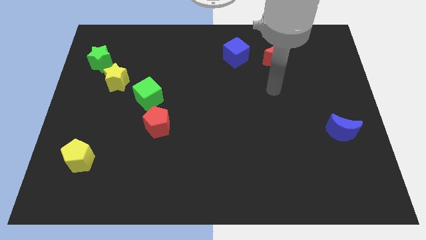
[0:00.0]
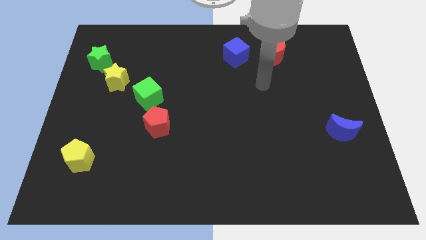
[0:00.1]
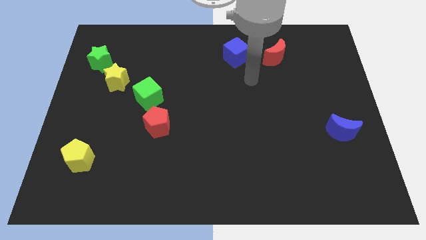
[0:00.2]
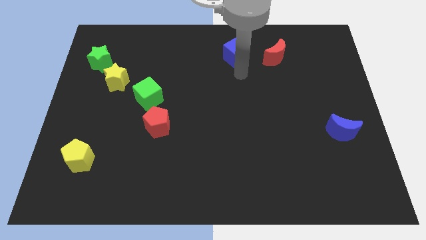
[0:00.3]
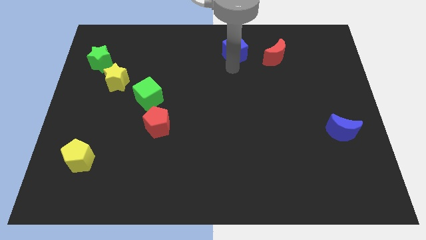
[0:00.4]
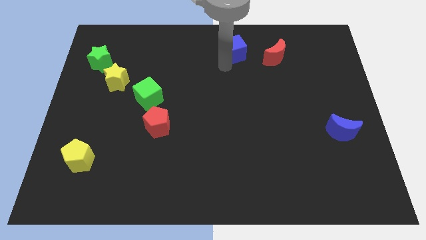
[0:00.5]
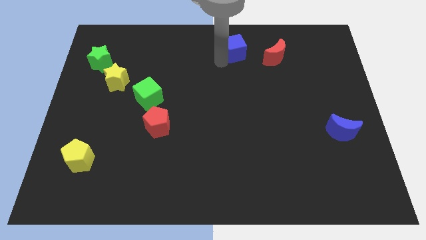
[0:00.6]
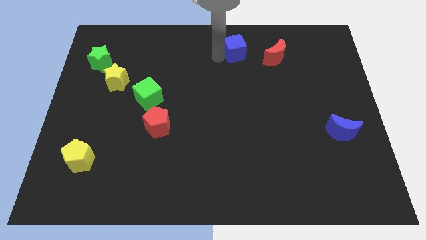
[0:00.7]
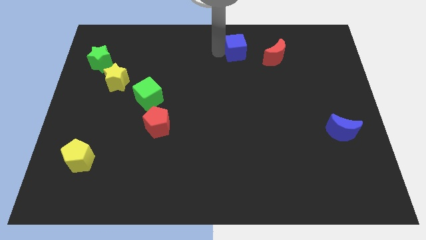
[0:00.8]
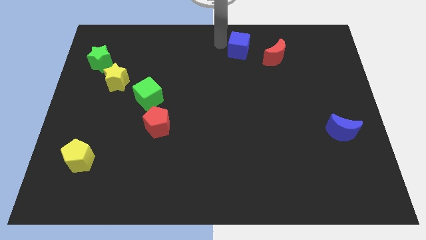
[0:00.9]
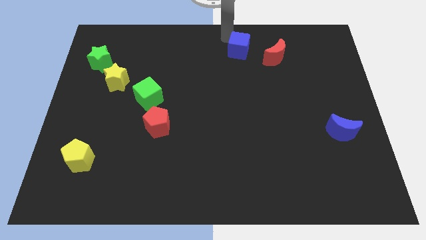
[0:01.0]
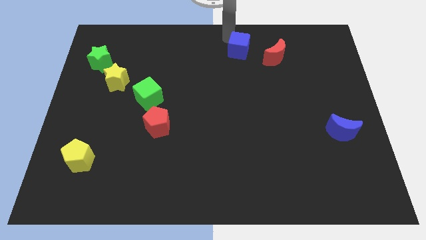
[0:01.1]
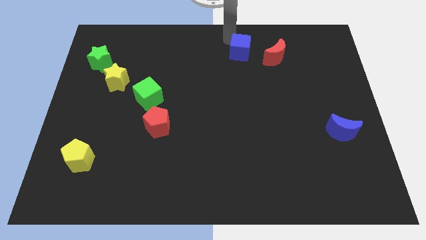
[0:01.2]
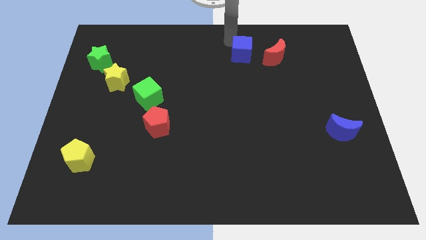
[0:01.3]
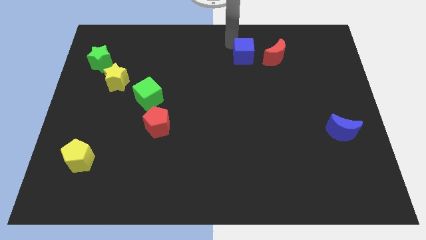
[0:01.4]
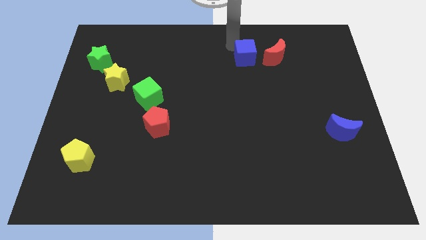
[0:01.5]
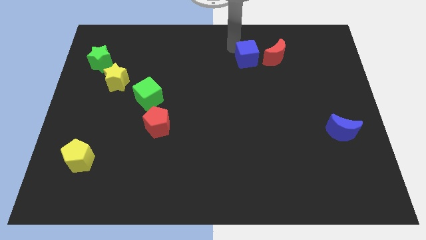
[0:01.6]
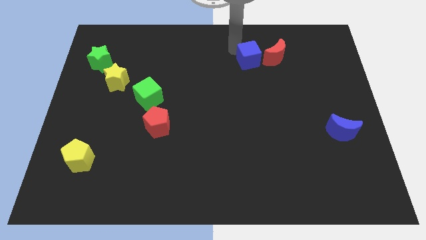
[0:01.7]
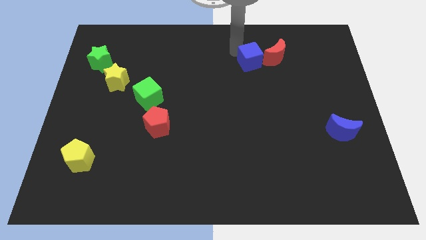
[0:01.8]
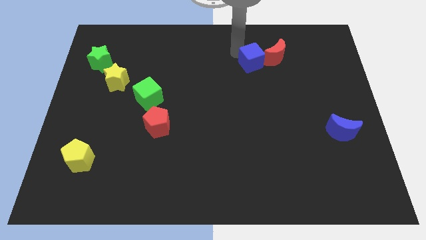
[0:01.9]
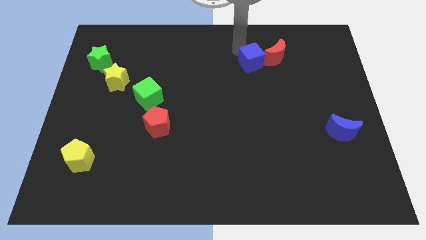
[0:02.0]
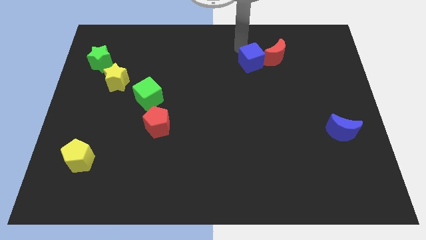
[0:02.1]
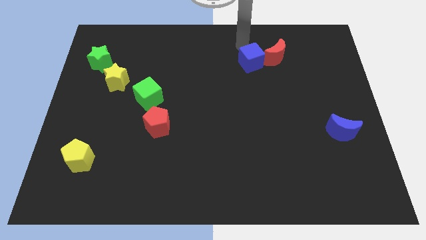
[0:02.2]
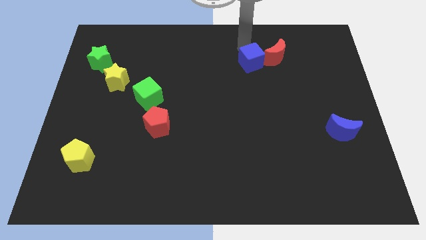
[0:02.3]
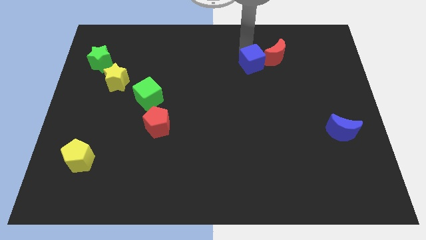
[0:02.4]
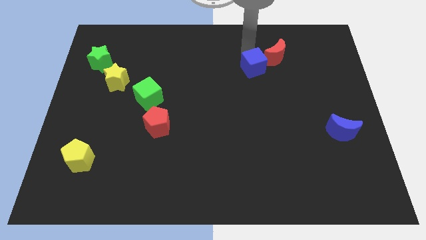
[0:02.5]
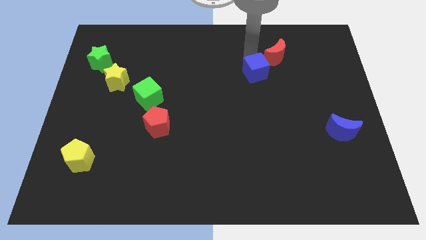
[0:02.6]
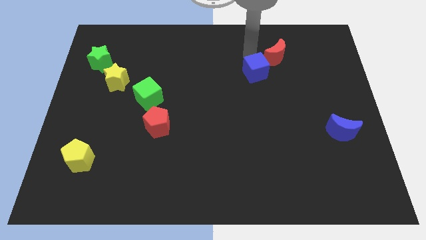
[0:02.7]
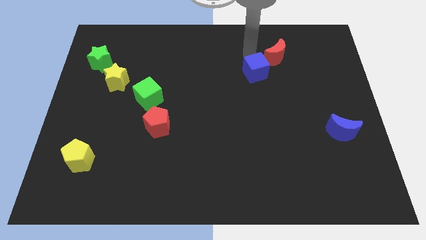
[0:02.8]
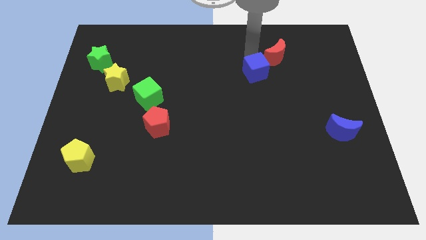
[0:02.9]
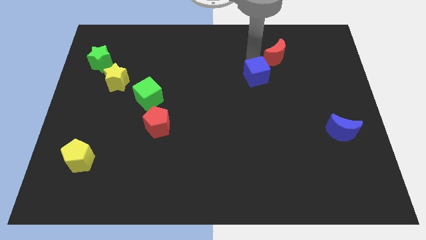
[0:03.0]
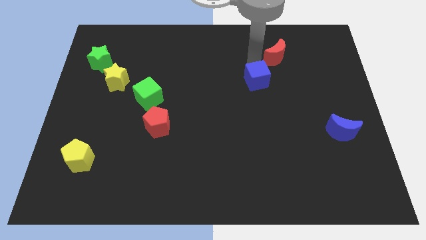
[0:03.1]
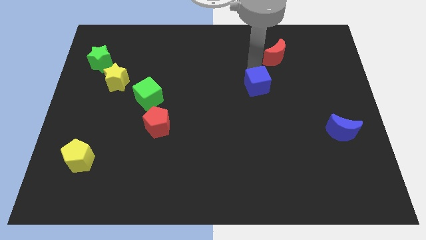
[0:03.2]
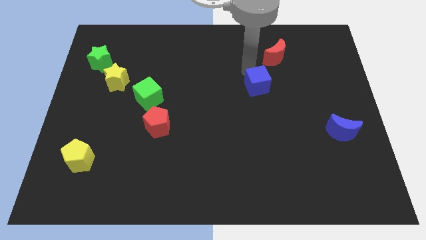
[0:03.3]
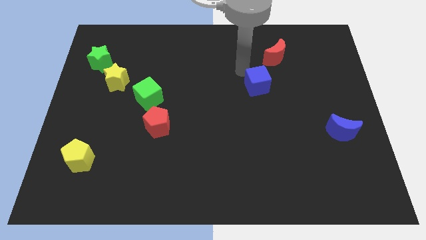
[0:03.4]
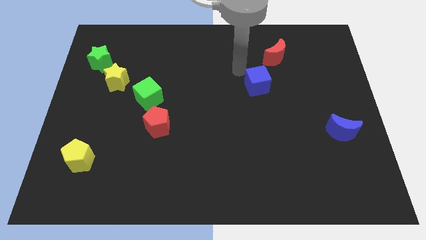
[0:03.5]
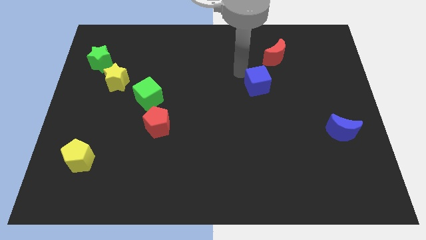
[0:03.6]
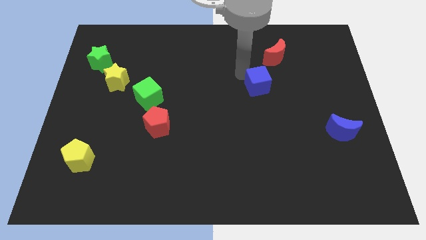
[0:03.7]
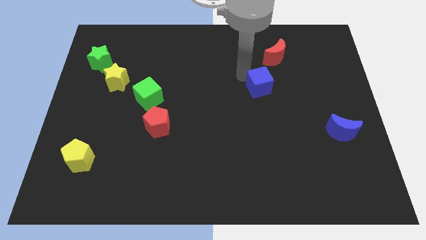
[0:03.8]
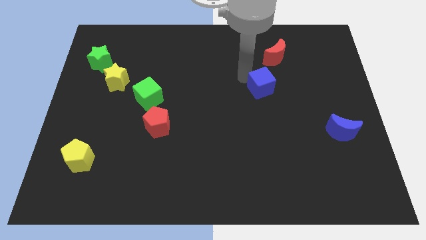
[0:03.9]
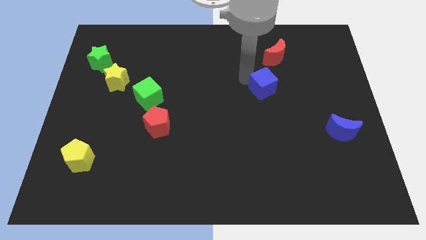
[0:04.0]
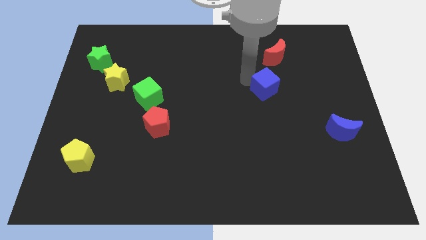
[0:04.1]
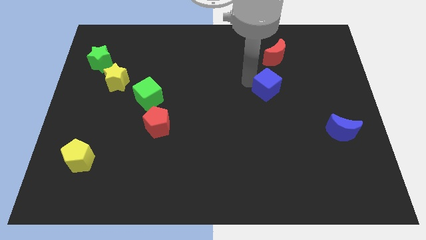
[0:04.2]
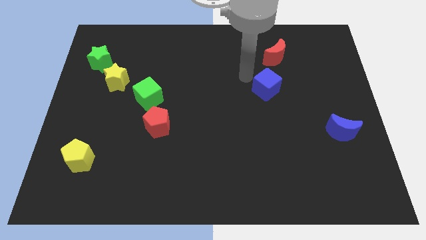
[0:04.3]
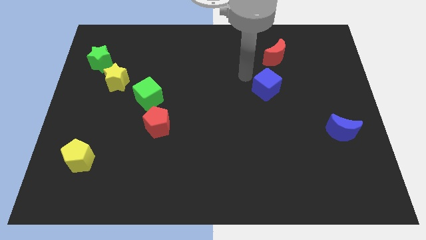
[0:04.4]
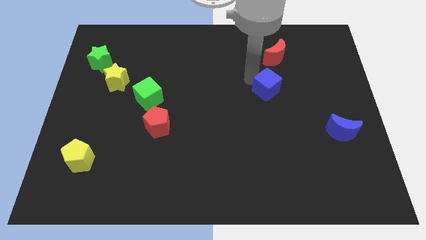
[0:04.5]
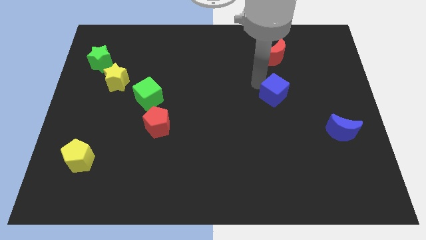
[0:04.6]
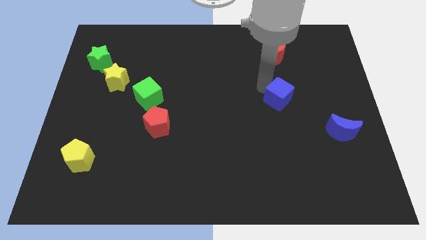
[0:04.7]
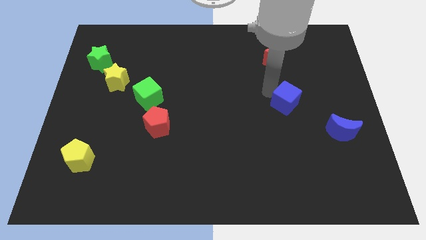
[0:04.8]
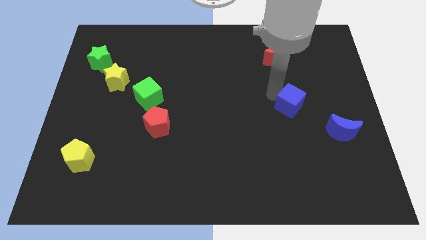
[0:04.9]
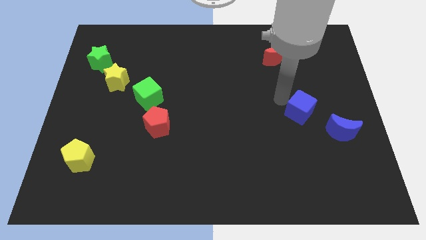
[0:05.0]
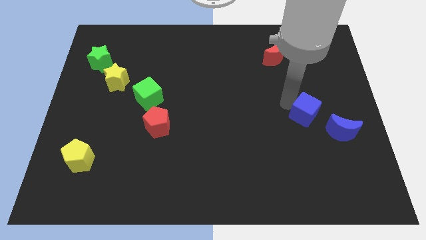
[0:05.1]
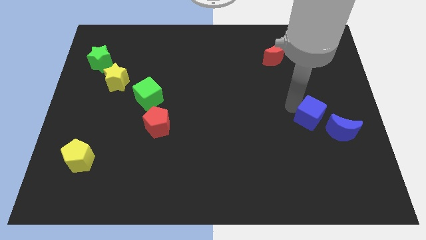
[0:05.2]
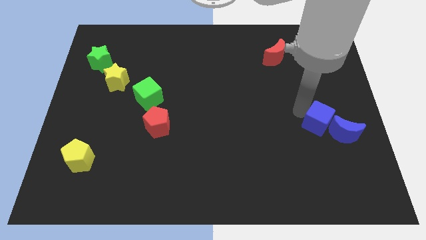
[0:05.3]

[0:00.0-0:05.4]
push the blue cube towards the blue moon

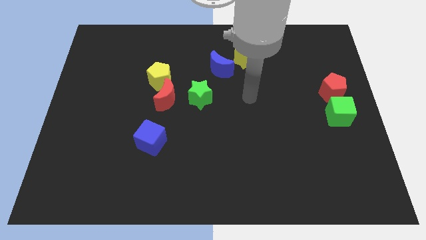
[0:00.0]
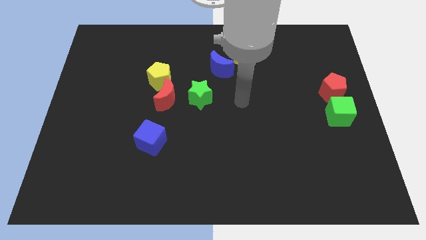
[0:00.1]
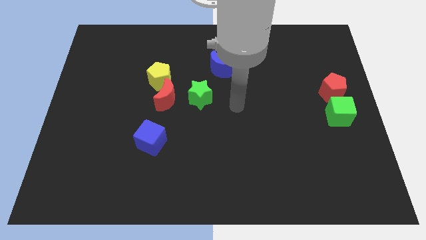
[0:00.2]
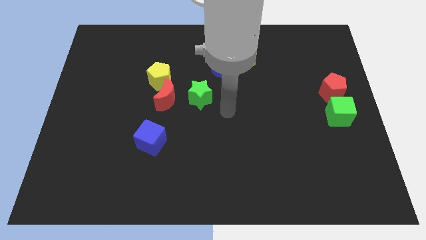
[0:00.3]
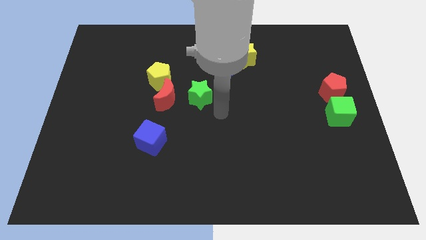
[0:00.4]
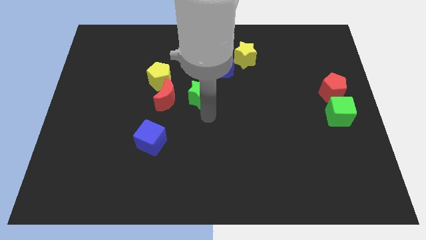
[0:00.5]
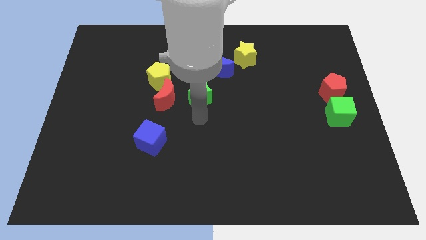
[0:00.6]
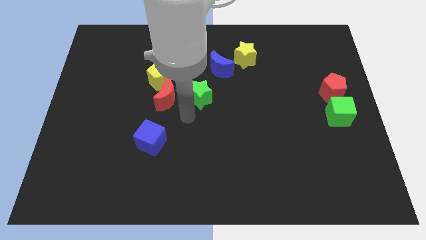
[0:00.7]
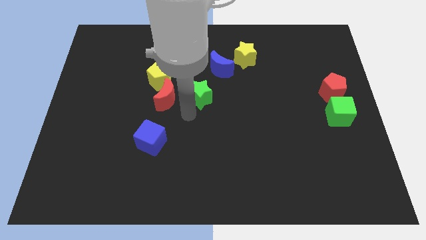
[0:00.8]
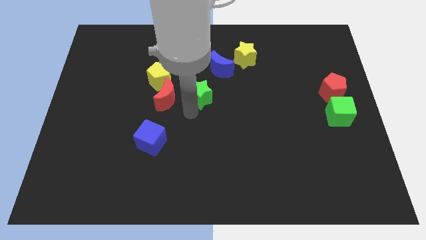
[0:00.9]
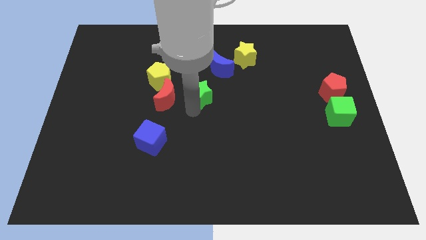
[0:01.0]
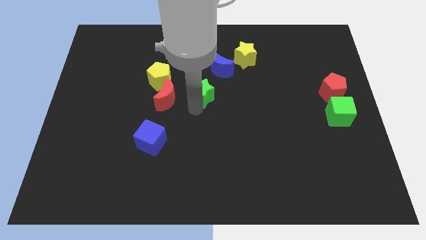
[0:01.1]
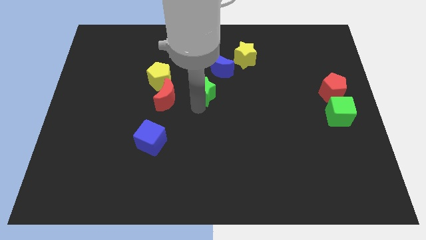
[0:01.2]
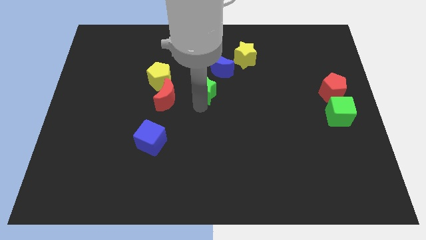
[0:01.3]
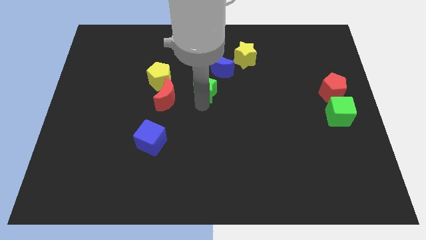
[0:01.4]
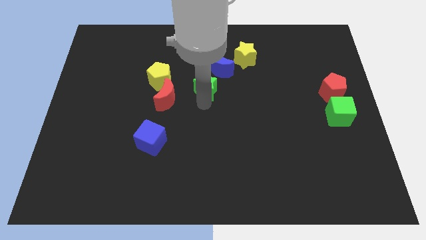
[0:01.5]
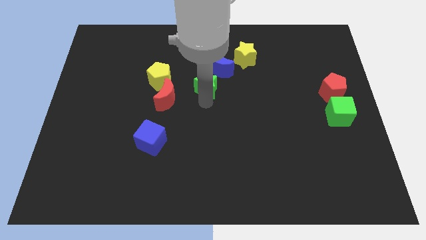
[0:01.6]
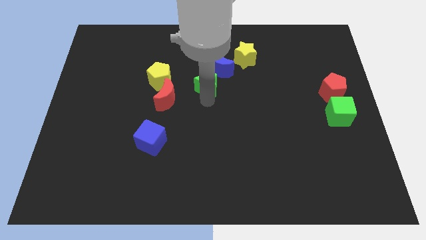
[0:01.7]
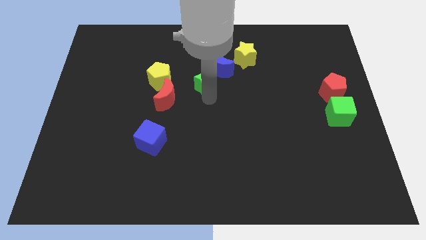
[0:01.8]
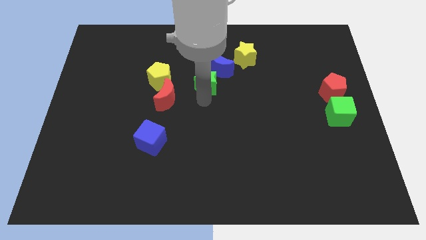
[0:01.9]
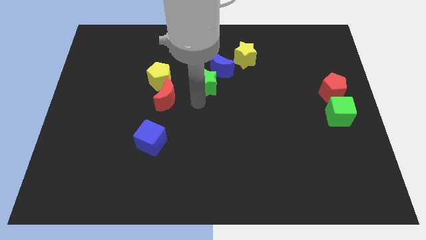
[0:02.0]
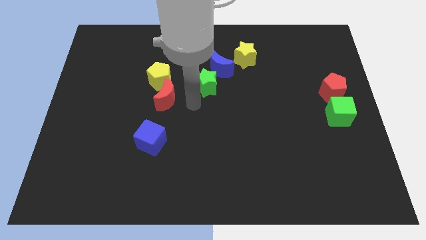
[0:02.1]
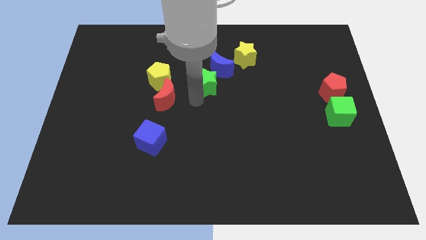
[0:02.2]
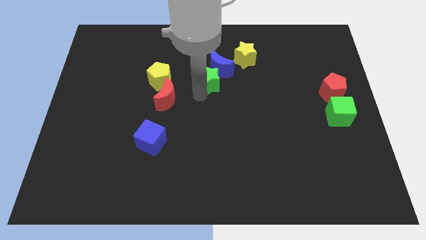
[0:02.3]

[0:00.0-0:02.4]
push the green star towards the blue moon
